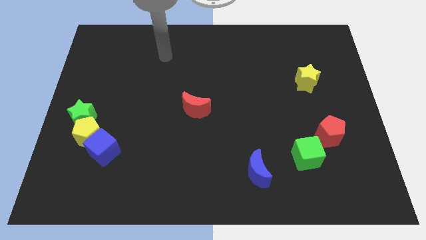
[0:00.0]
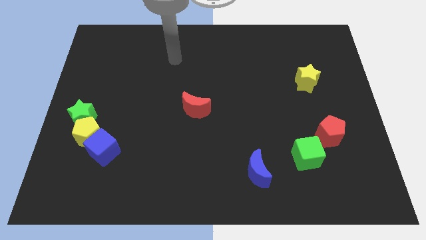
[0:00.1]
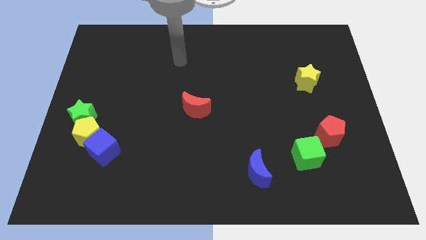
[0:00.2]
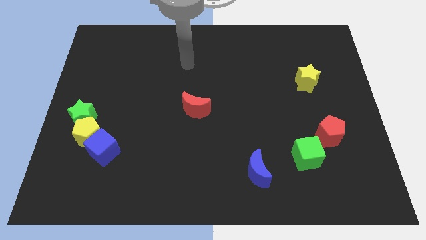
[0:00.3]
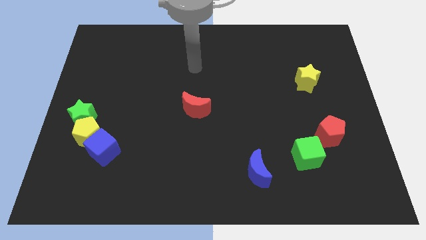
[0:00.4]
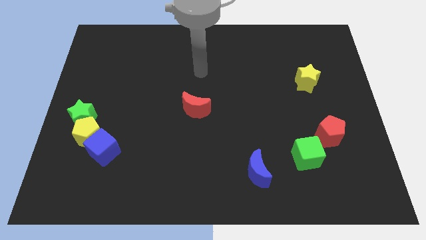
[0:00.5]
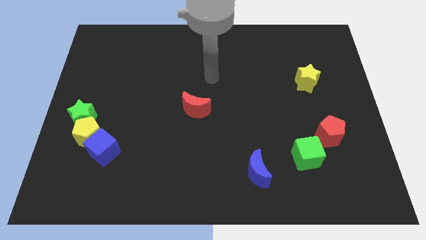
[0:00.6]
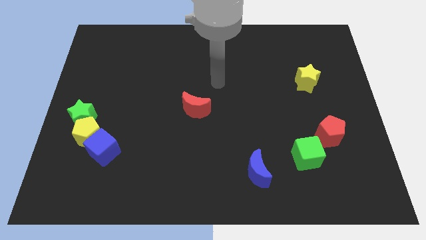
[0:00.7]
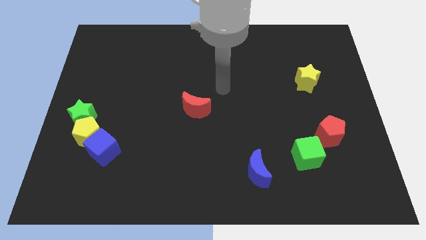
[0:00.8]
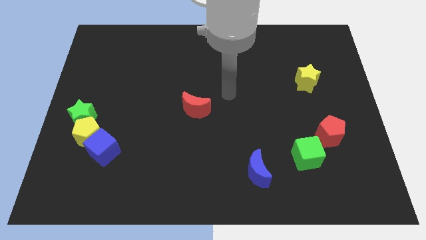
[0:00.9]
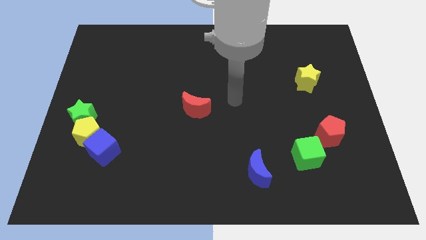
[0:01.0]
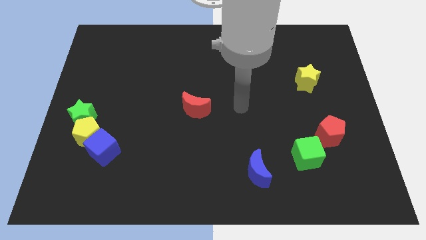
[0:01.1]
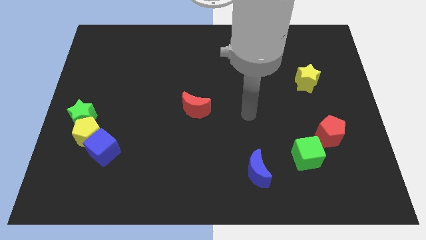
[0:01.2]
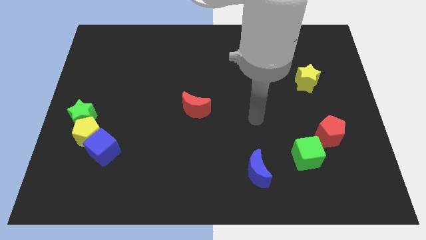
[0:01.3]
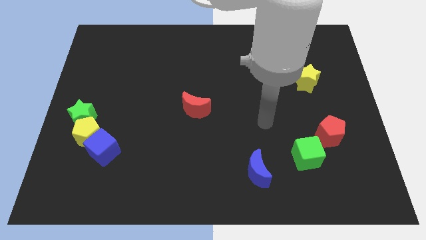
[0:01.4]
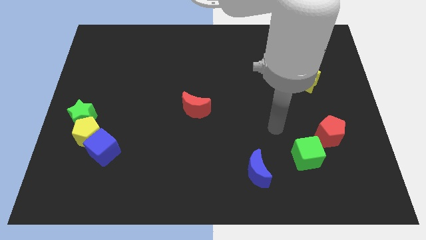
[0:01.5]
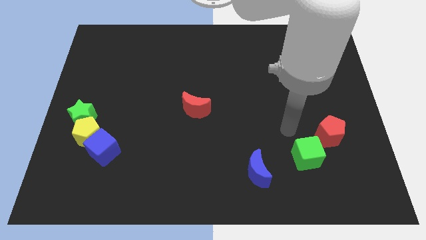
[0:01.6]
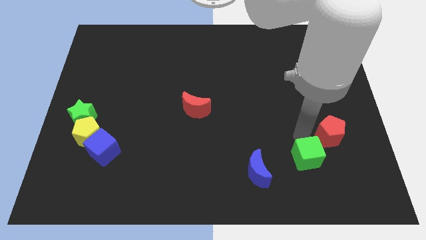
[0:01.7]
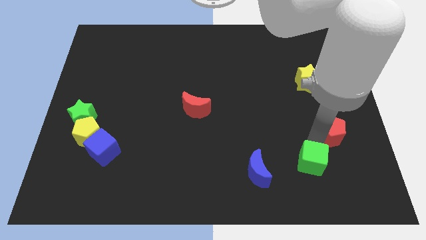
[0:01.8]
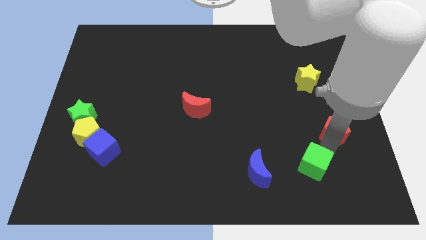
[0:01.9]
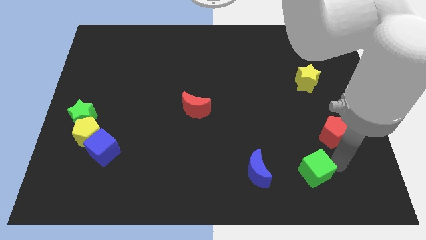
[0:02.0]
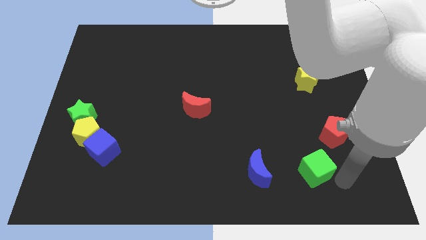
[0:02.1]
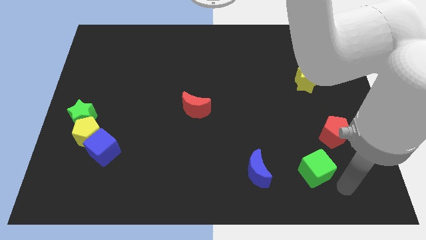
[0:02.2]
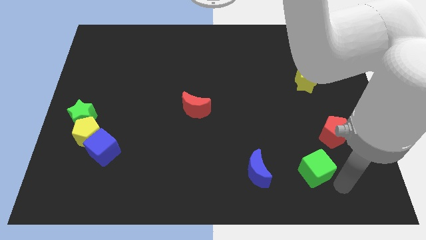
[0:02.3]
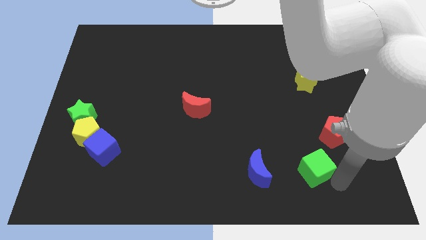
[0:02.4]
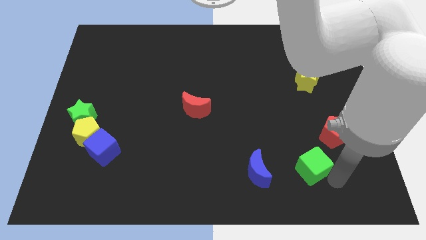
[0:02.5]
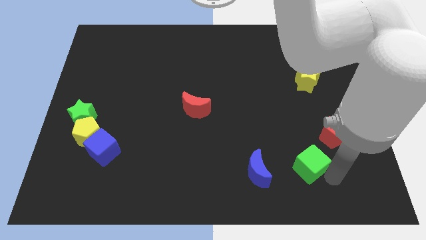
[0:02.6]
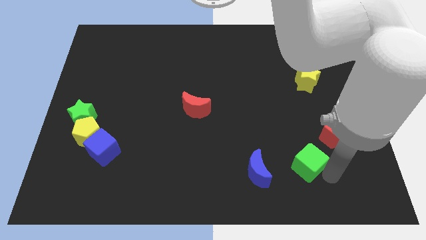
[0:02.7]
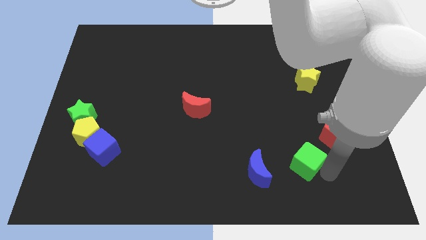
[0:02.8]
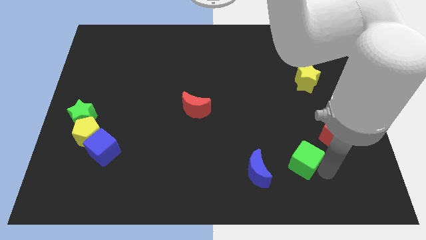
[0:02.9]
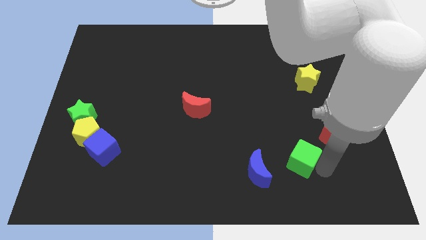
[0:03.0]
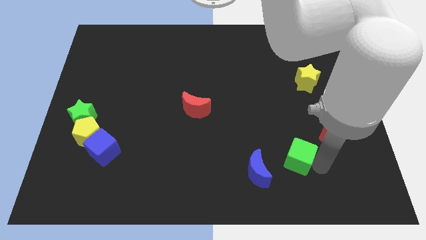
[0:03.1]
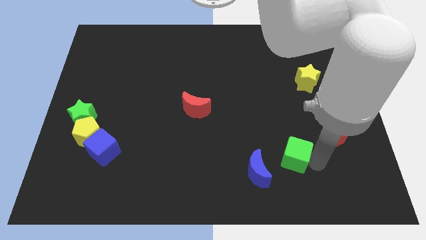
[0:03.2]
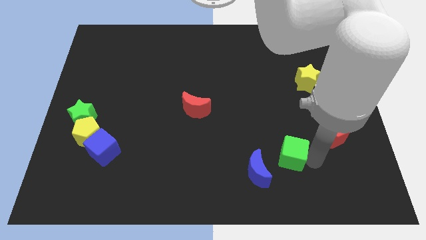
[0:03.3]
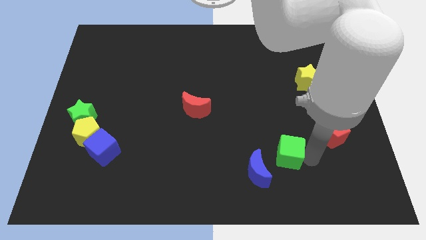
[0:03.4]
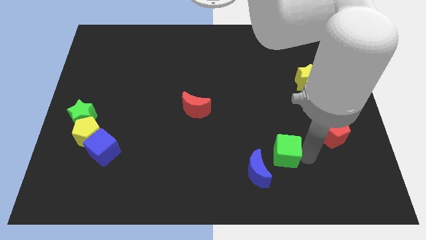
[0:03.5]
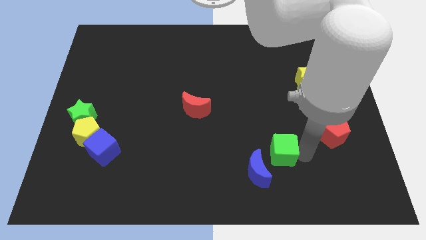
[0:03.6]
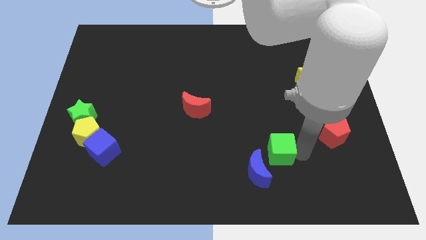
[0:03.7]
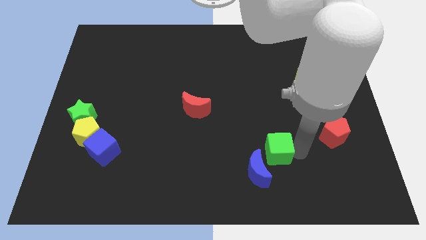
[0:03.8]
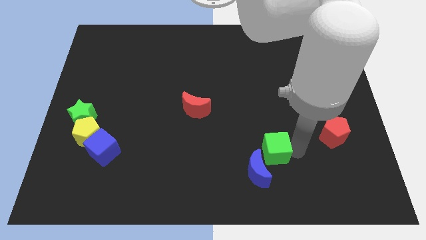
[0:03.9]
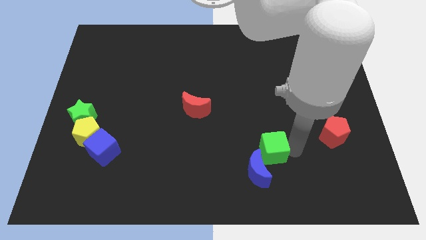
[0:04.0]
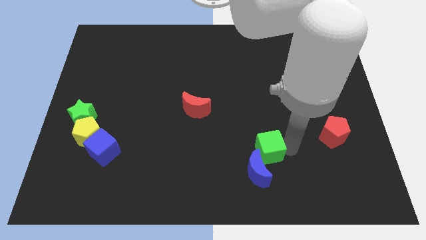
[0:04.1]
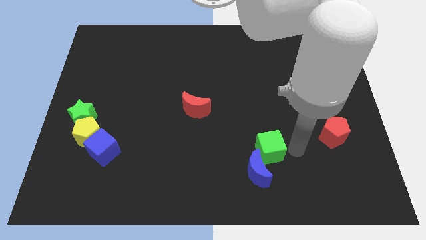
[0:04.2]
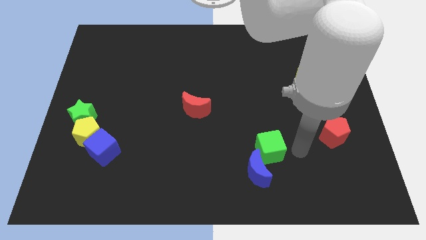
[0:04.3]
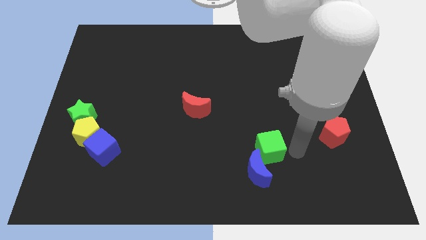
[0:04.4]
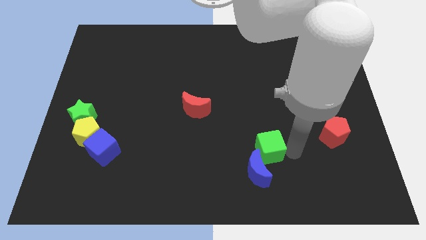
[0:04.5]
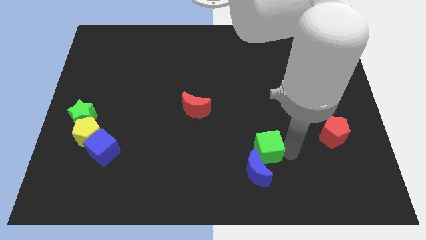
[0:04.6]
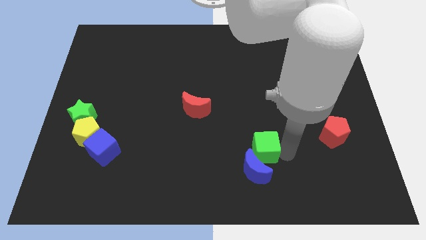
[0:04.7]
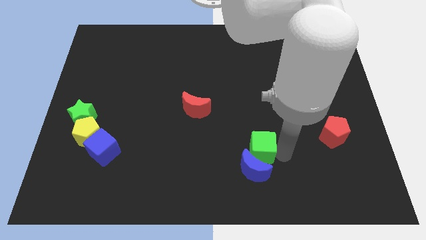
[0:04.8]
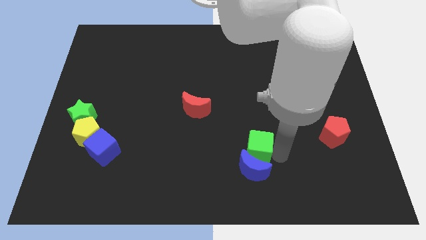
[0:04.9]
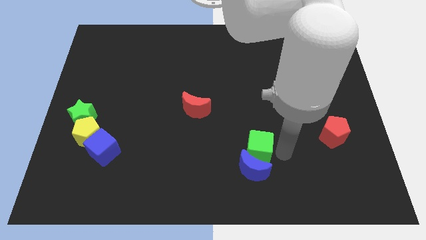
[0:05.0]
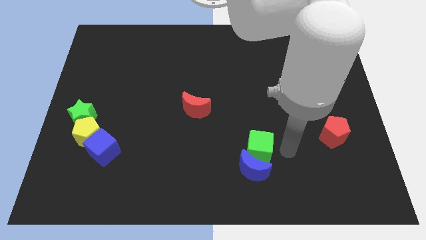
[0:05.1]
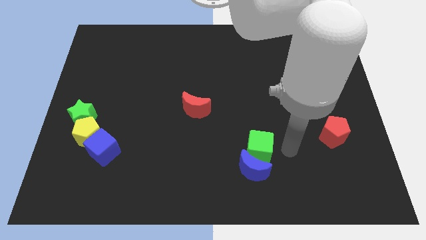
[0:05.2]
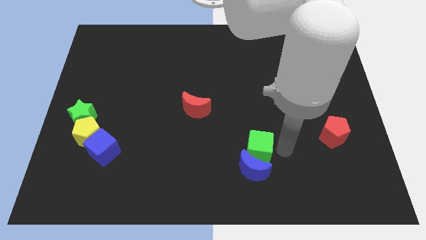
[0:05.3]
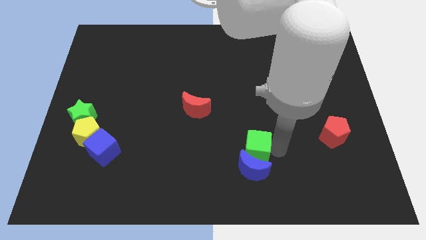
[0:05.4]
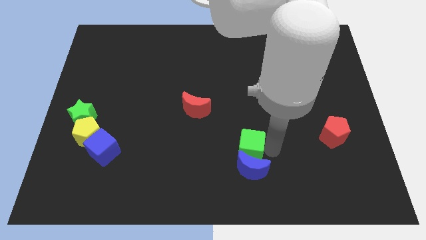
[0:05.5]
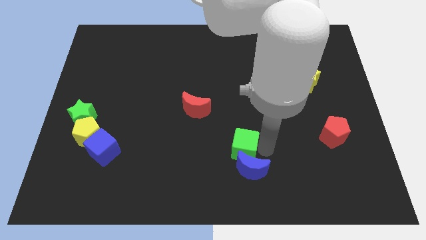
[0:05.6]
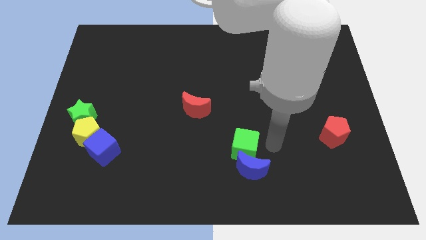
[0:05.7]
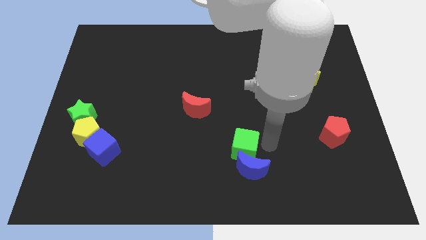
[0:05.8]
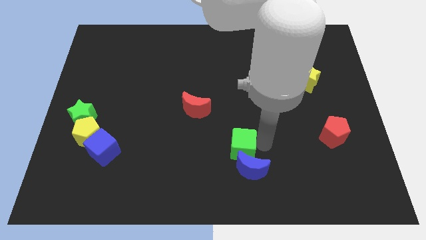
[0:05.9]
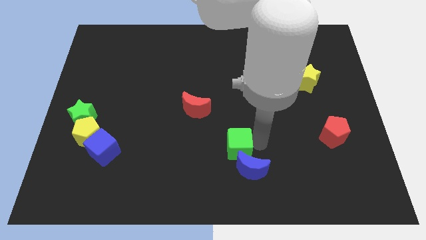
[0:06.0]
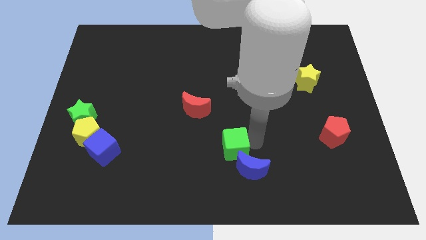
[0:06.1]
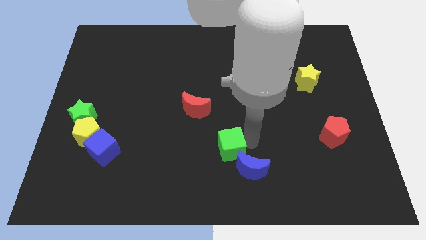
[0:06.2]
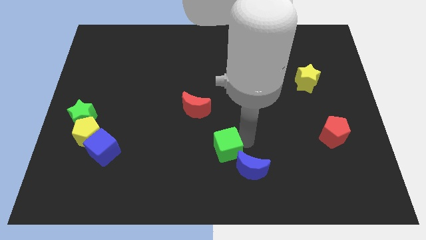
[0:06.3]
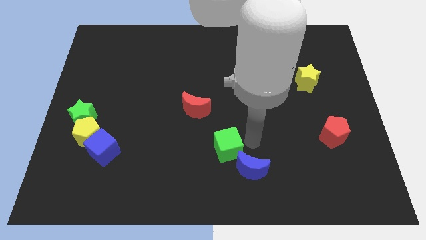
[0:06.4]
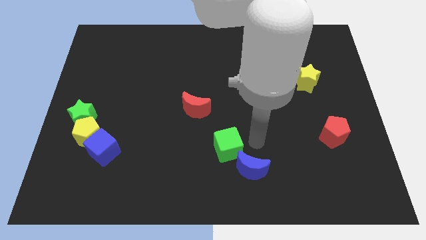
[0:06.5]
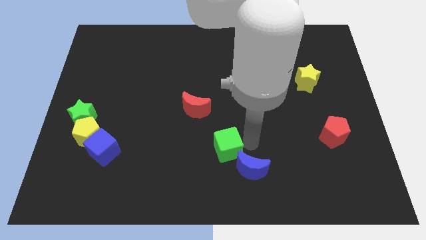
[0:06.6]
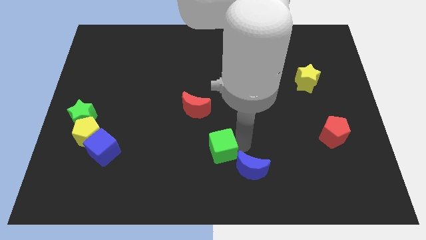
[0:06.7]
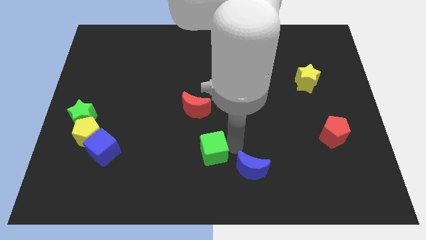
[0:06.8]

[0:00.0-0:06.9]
move the green cube to the left

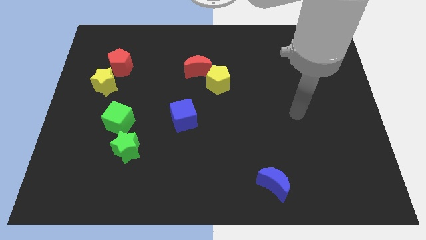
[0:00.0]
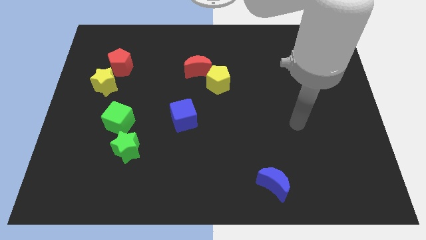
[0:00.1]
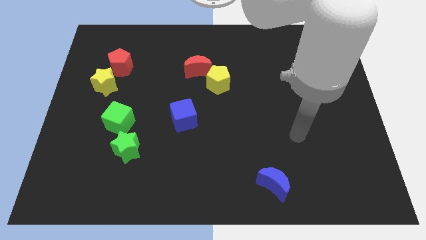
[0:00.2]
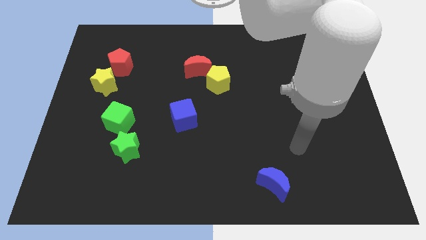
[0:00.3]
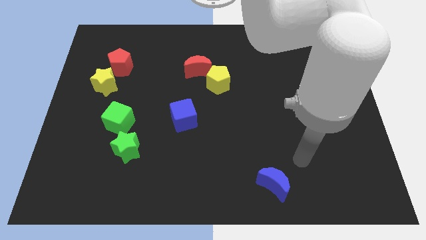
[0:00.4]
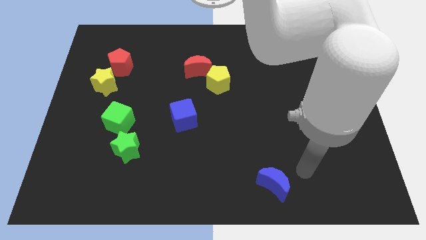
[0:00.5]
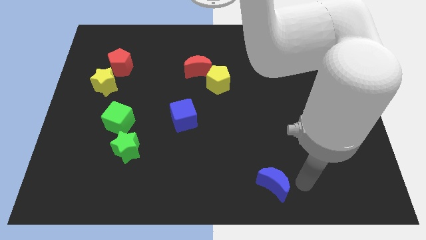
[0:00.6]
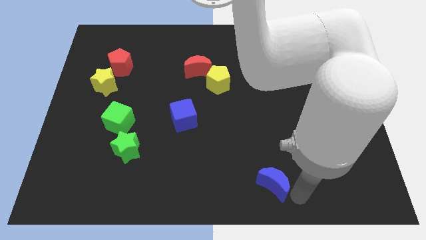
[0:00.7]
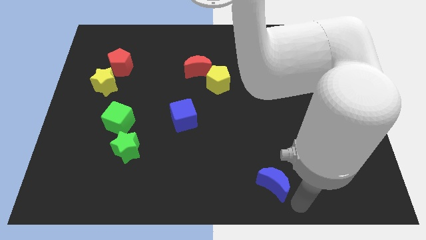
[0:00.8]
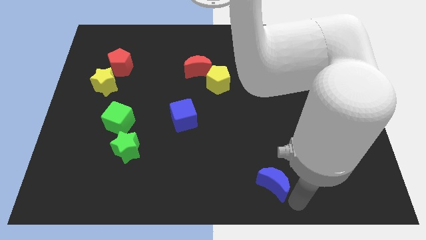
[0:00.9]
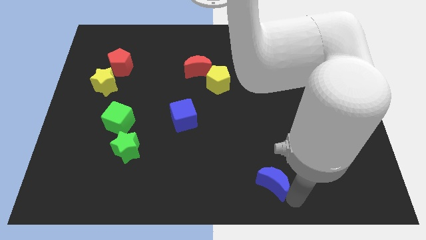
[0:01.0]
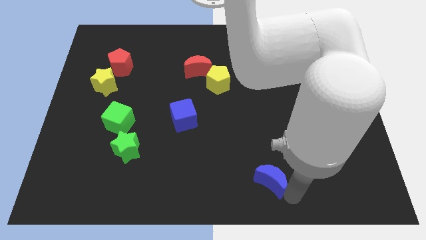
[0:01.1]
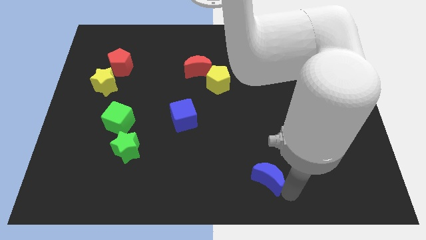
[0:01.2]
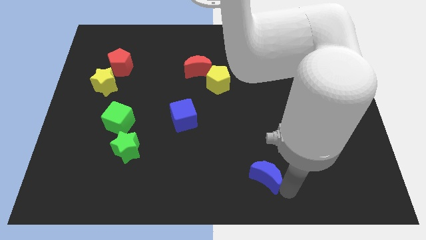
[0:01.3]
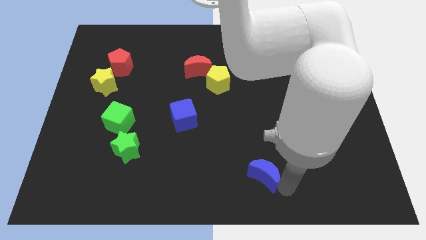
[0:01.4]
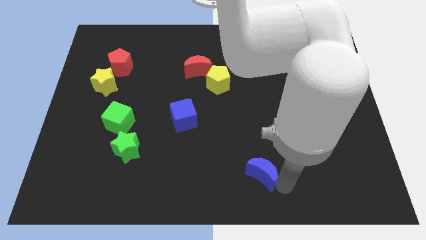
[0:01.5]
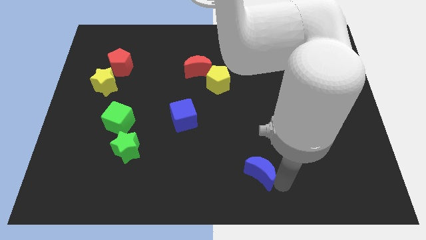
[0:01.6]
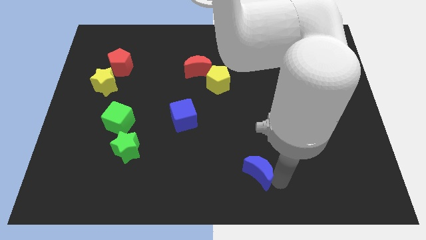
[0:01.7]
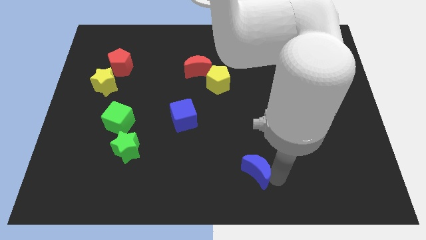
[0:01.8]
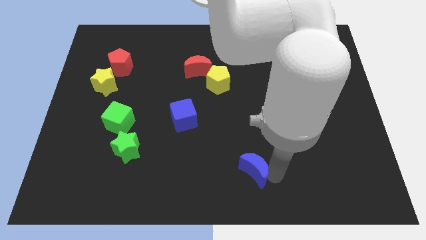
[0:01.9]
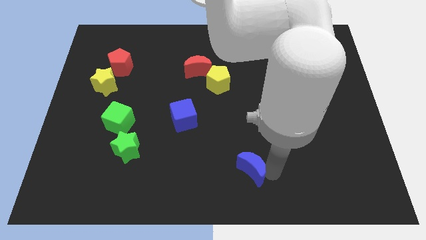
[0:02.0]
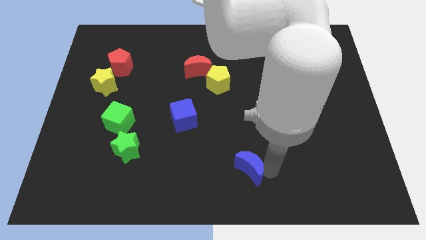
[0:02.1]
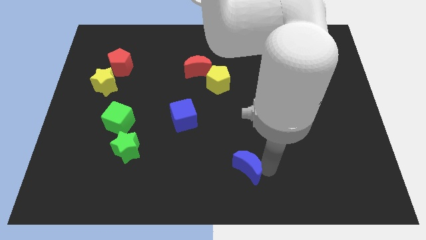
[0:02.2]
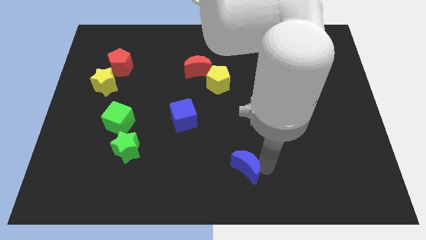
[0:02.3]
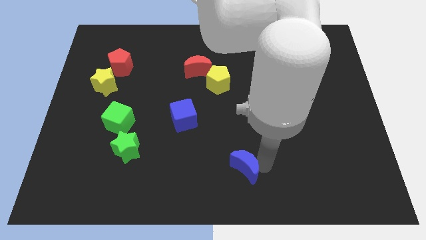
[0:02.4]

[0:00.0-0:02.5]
slide the blue moon up and left diagonally a little
